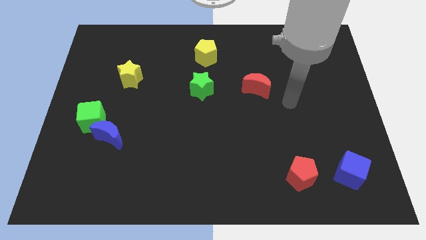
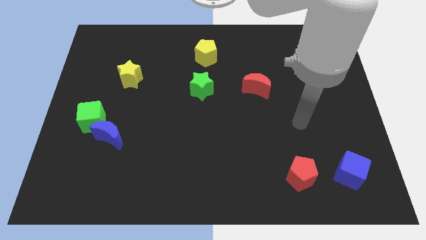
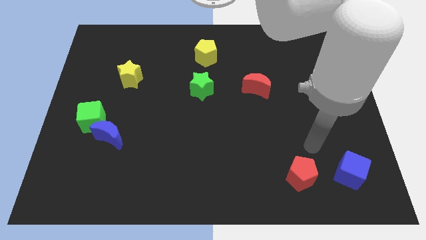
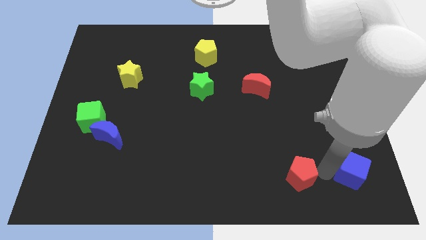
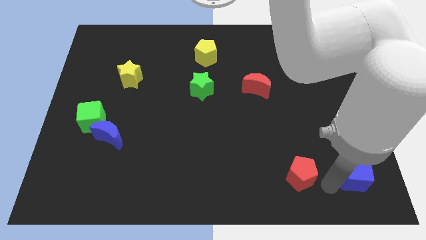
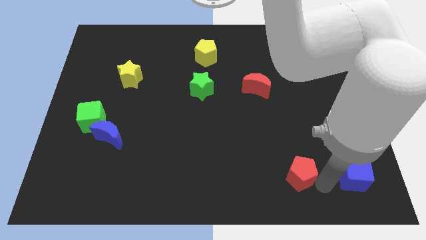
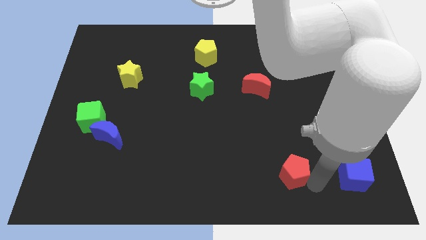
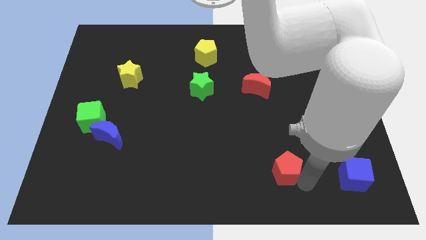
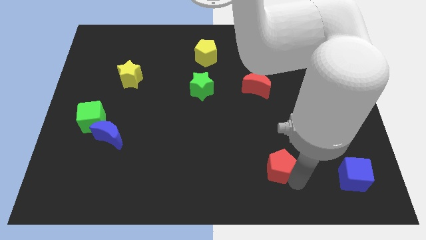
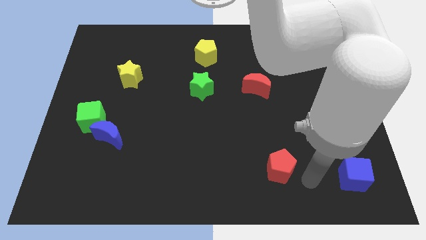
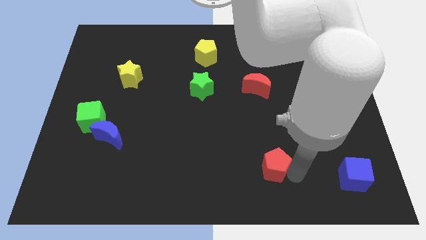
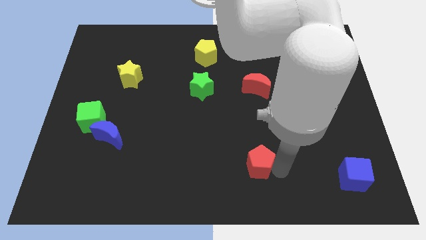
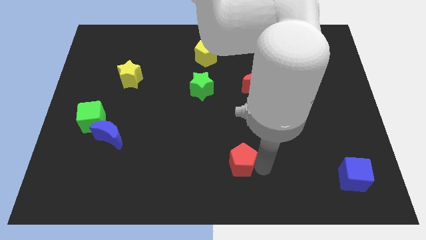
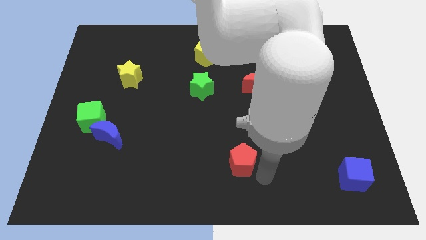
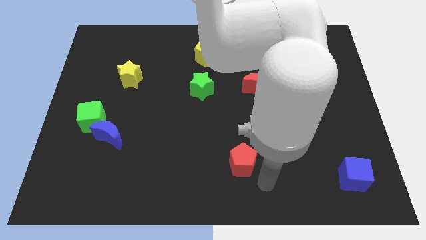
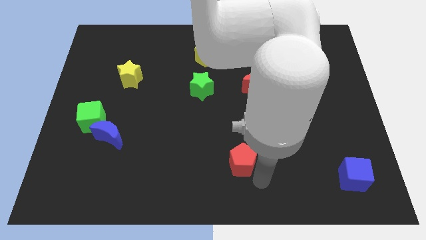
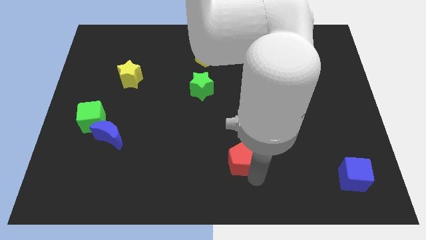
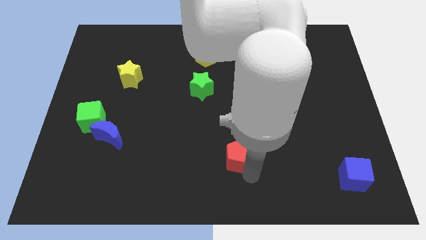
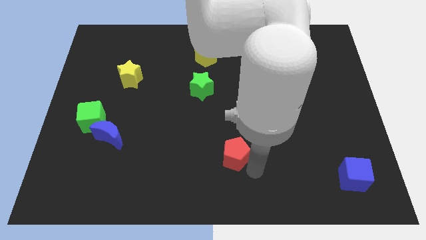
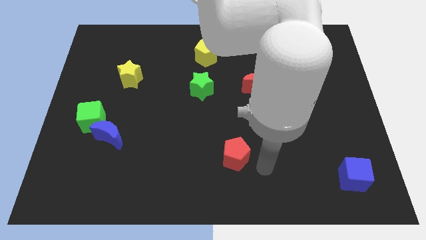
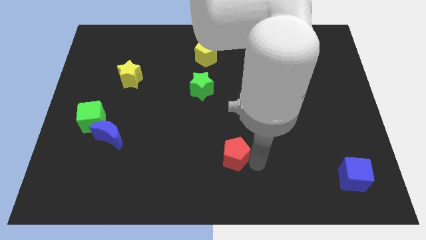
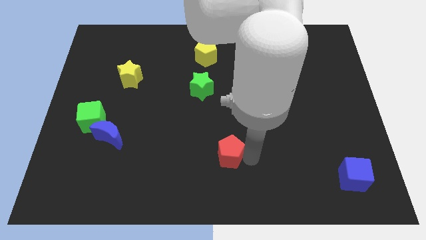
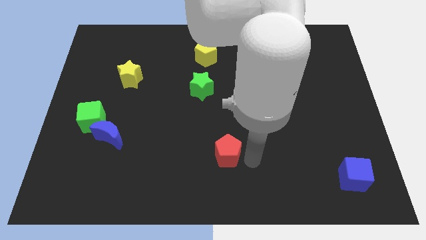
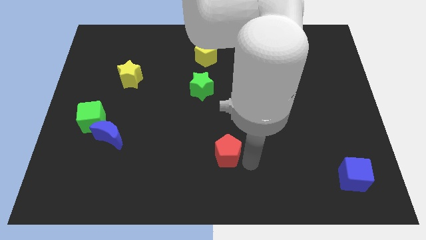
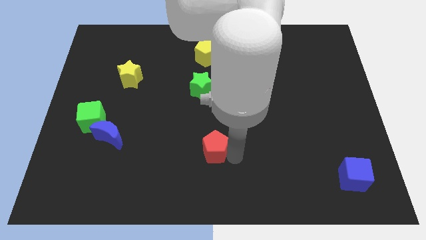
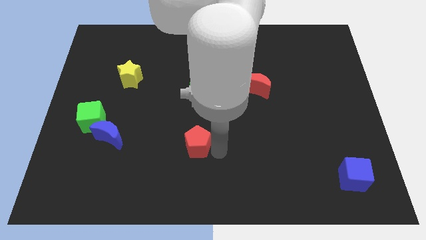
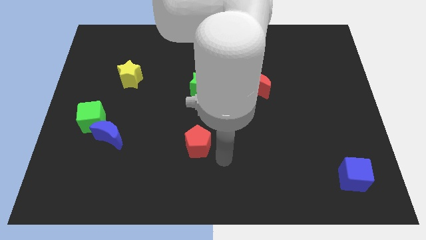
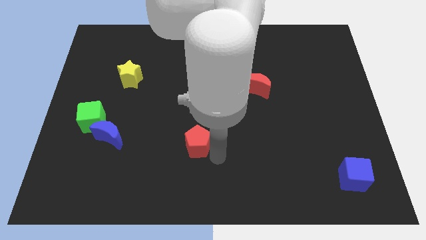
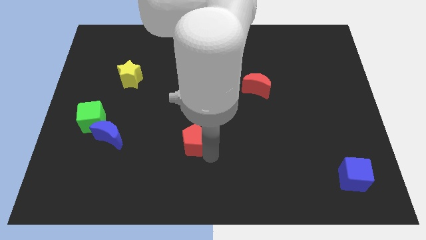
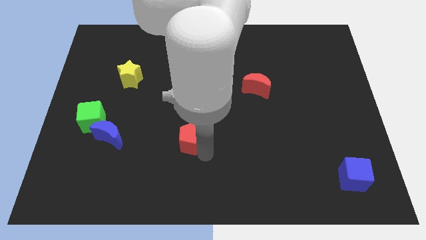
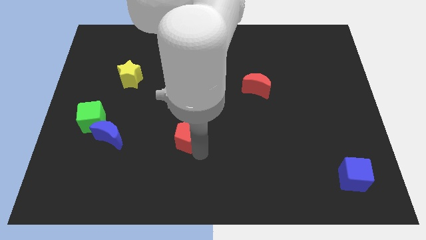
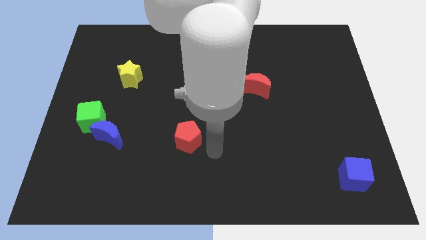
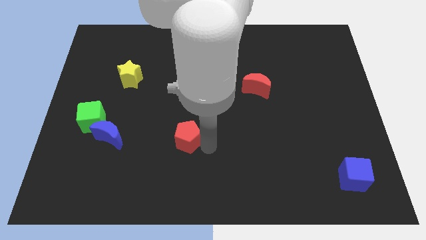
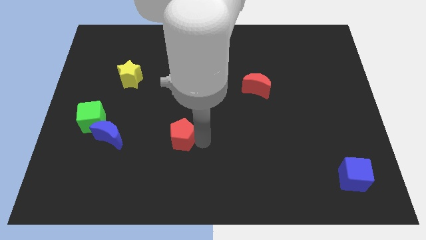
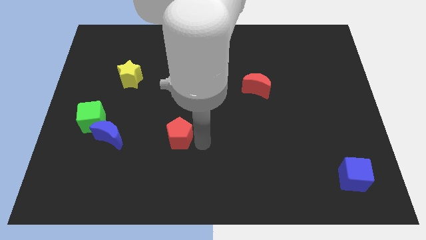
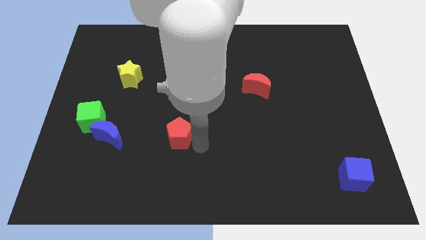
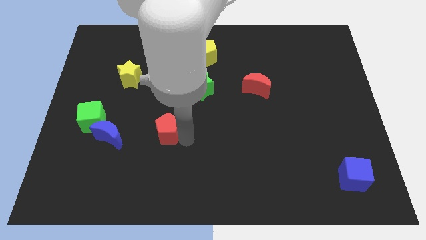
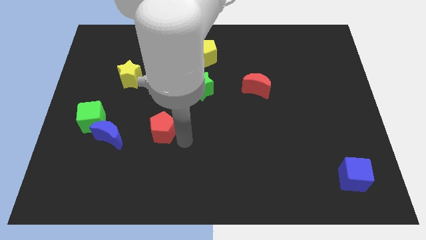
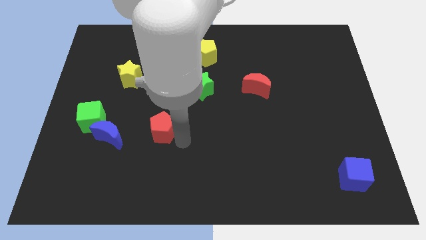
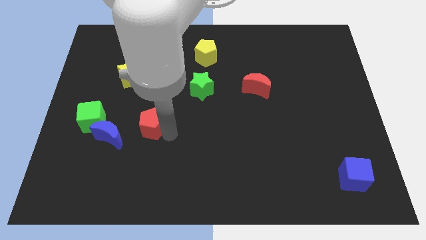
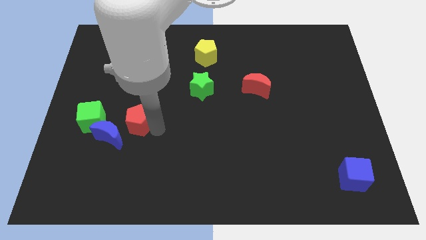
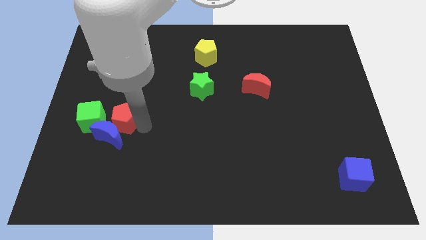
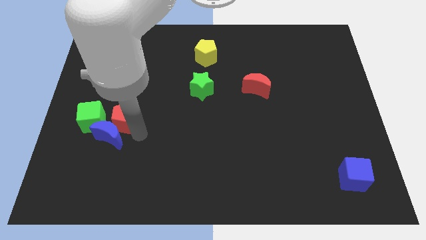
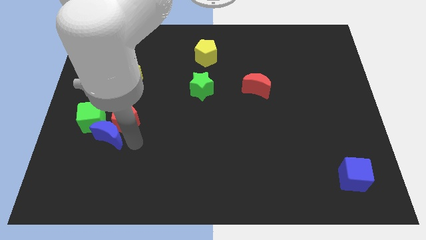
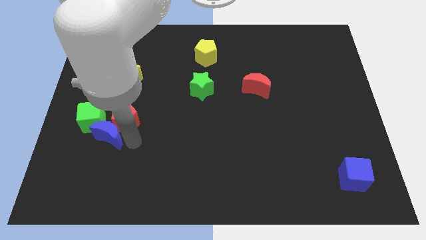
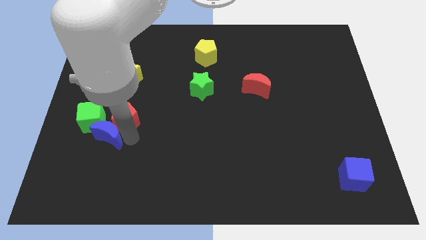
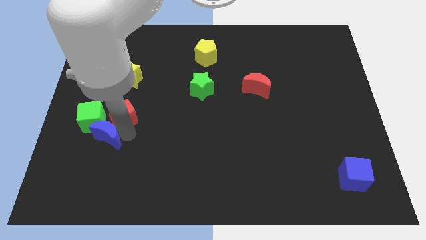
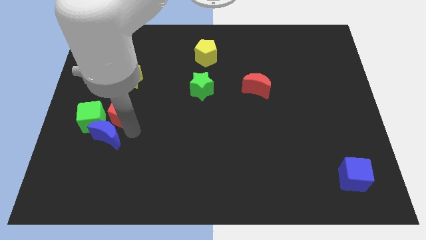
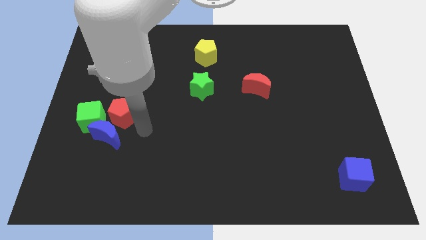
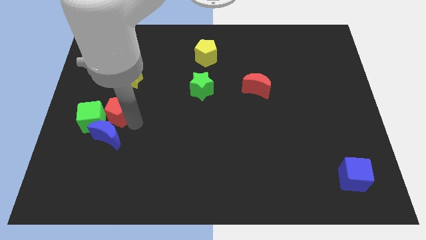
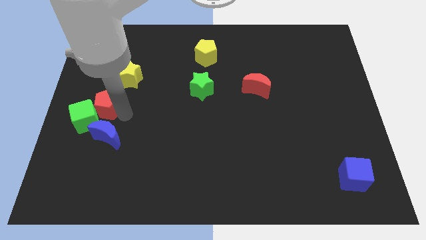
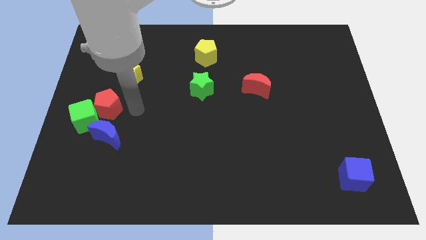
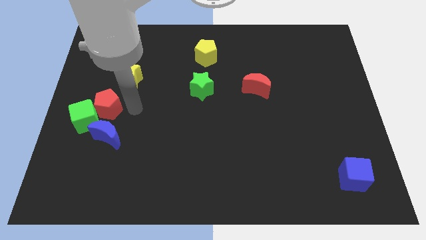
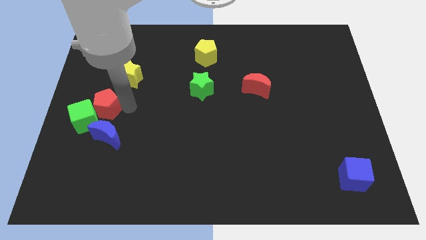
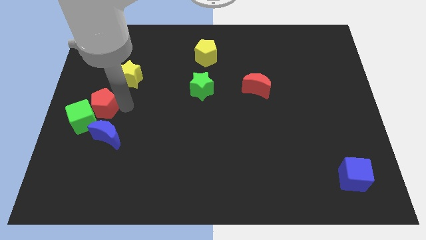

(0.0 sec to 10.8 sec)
slide the red pentagon to the left side
